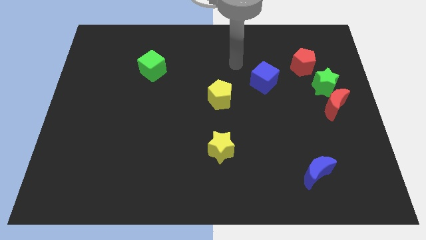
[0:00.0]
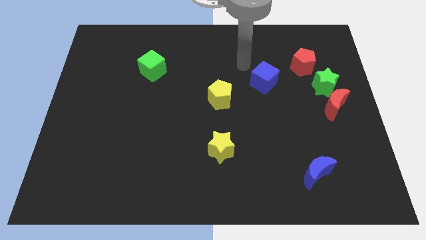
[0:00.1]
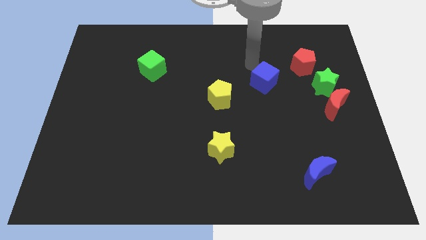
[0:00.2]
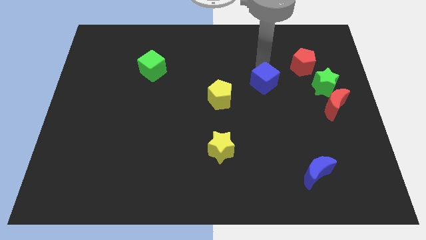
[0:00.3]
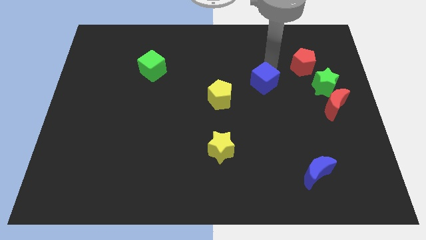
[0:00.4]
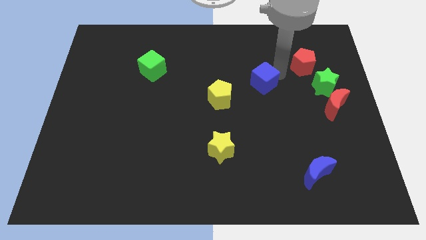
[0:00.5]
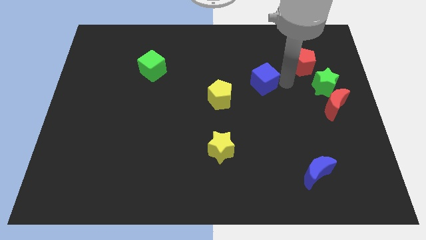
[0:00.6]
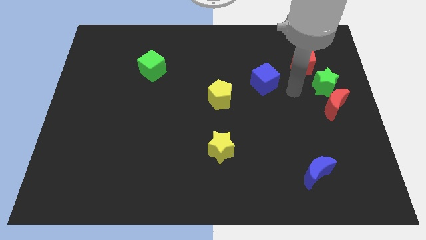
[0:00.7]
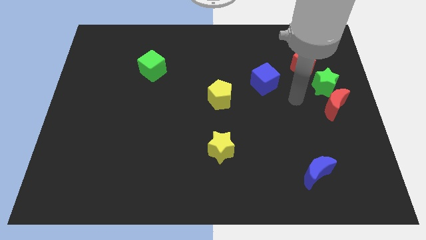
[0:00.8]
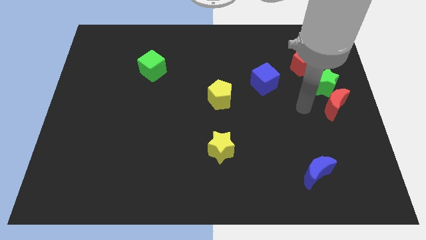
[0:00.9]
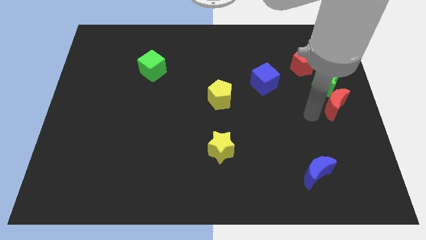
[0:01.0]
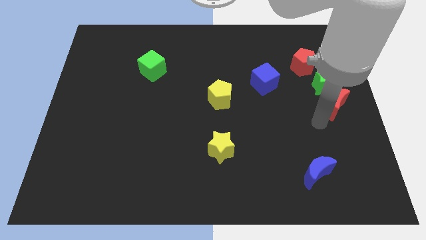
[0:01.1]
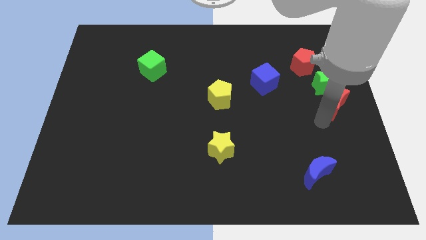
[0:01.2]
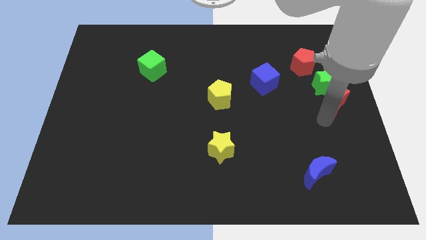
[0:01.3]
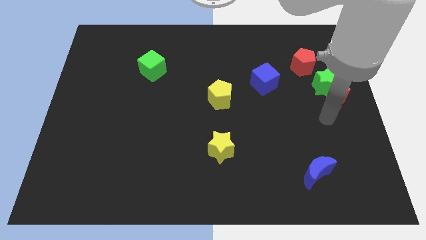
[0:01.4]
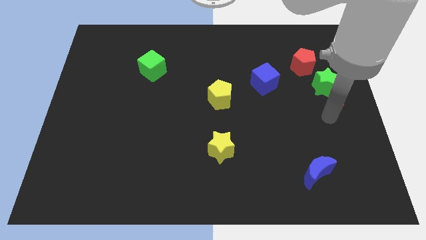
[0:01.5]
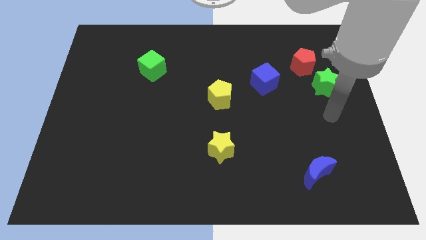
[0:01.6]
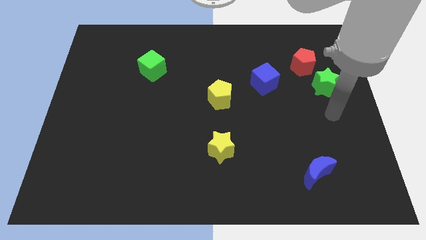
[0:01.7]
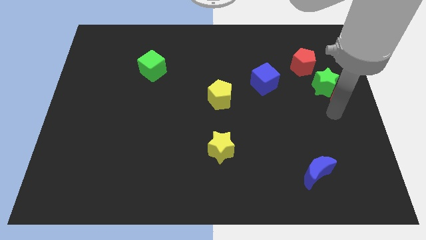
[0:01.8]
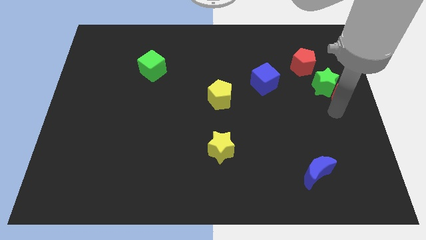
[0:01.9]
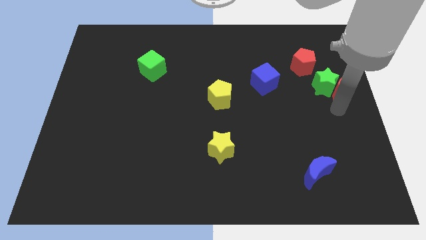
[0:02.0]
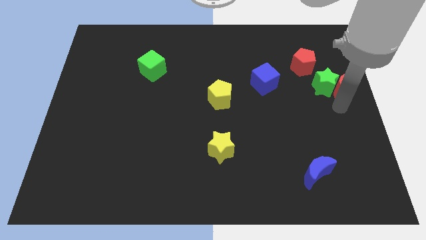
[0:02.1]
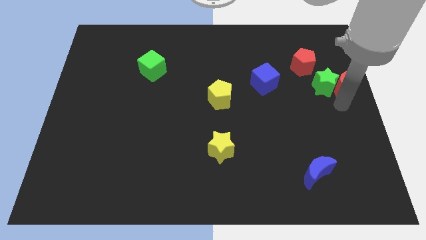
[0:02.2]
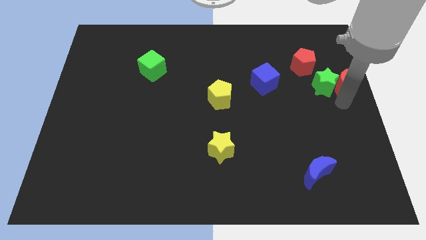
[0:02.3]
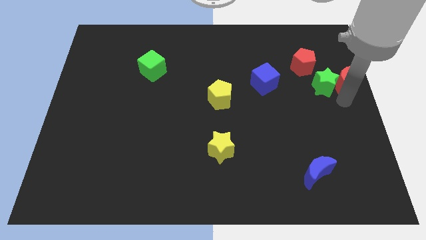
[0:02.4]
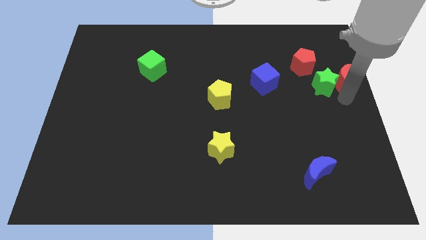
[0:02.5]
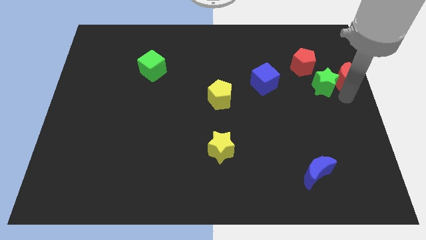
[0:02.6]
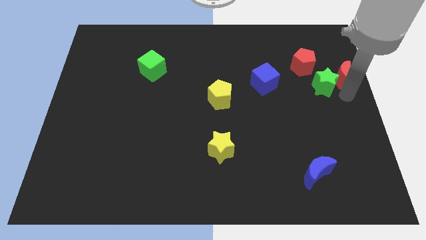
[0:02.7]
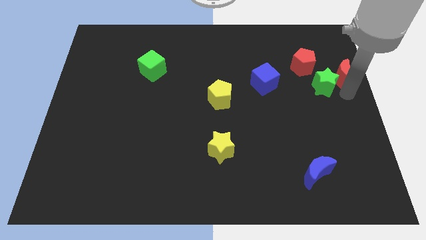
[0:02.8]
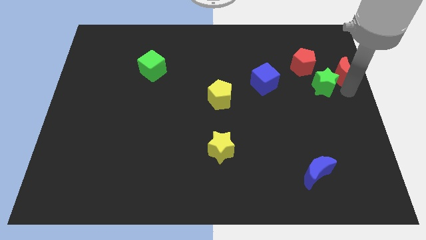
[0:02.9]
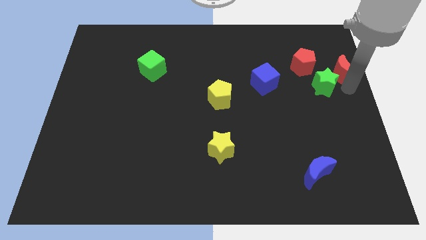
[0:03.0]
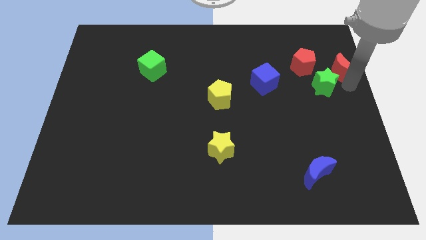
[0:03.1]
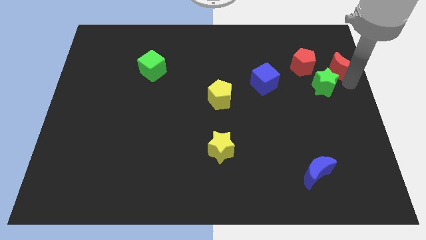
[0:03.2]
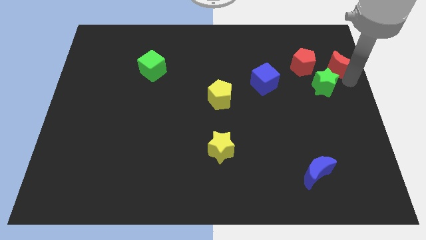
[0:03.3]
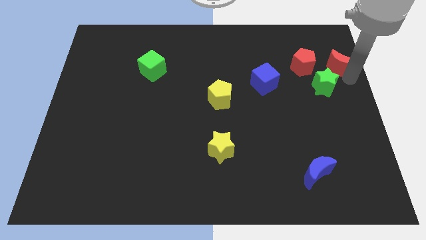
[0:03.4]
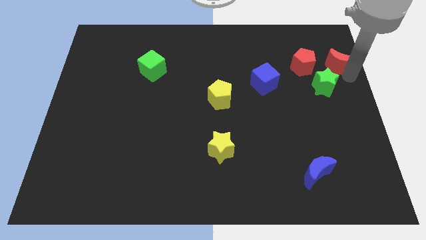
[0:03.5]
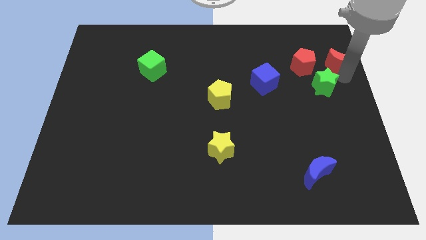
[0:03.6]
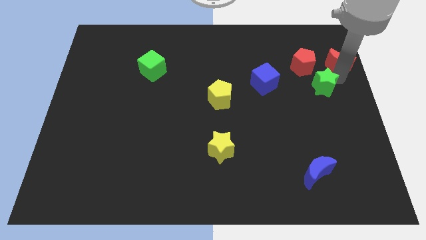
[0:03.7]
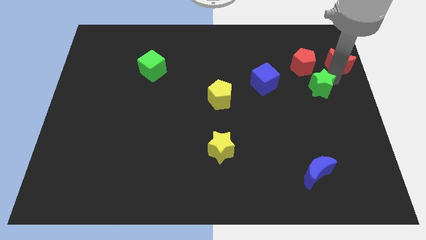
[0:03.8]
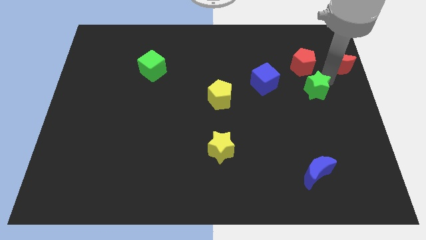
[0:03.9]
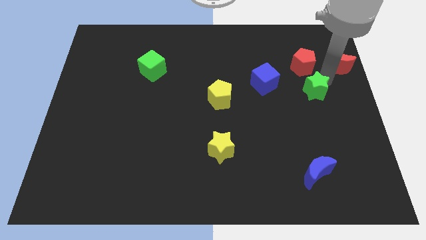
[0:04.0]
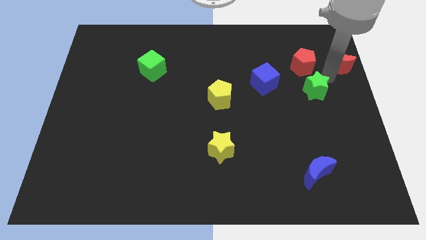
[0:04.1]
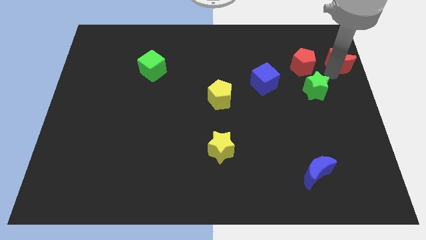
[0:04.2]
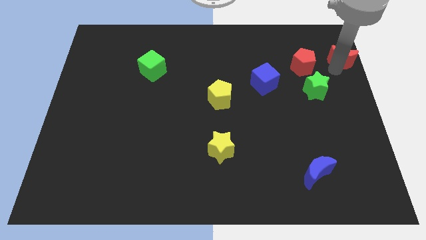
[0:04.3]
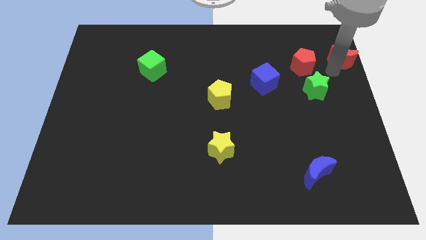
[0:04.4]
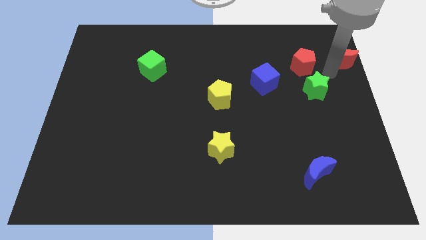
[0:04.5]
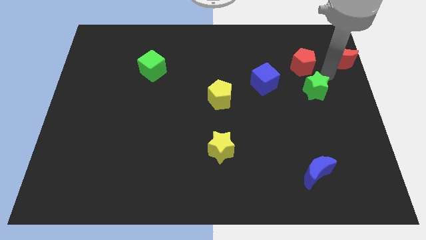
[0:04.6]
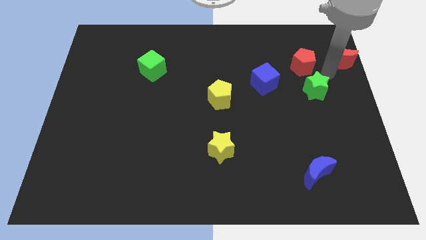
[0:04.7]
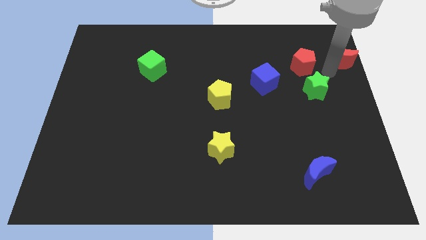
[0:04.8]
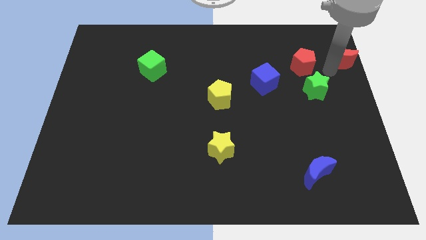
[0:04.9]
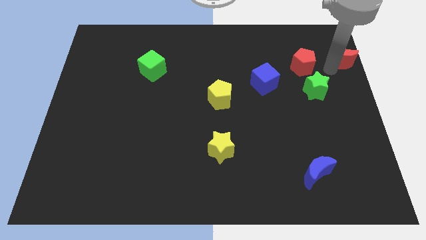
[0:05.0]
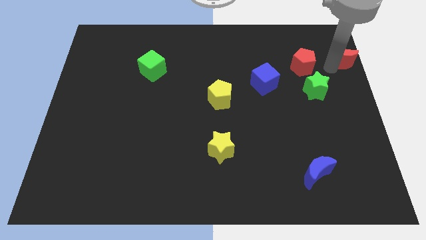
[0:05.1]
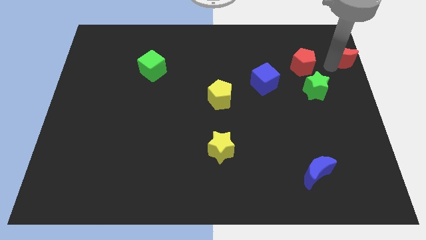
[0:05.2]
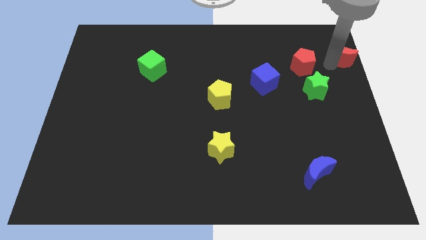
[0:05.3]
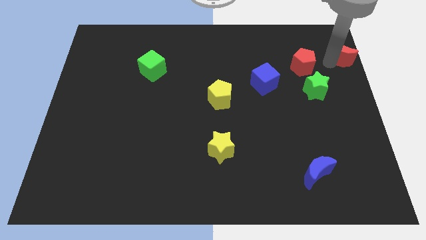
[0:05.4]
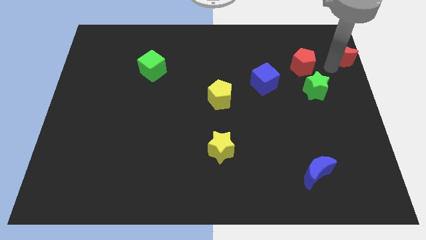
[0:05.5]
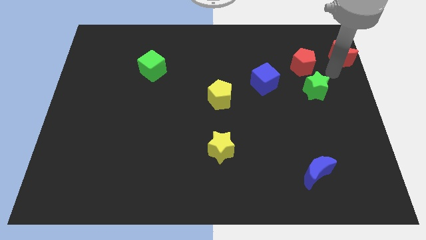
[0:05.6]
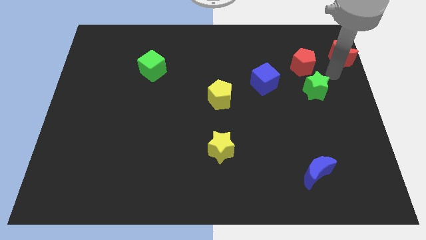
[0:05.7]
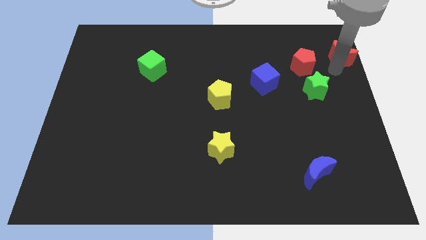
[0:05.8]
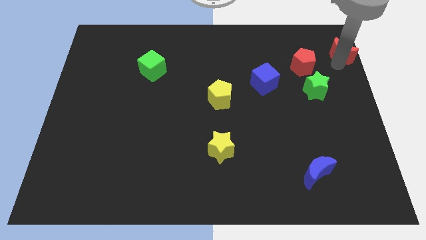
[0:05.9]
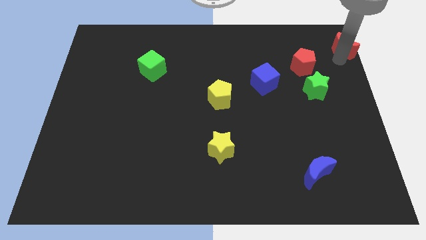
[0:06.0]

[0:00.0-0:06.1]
push the red moon to the upper right corner
